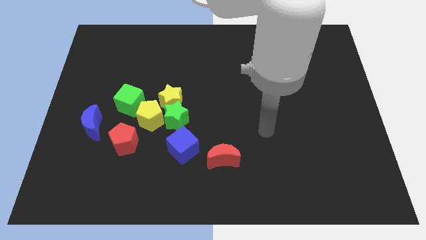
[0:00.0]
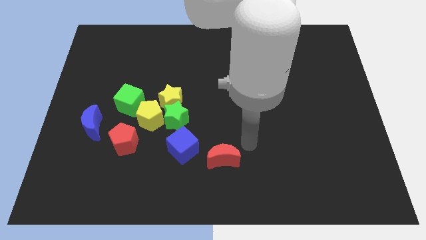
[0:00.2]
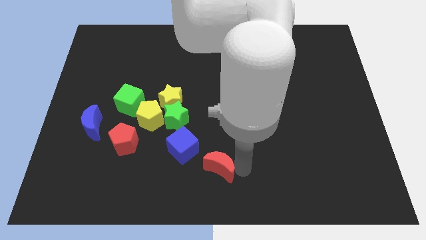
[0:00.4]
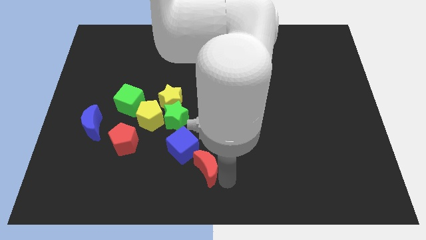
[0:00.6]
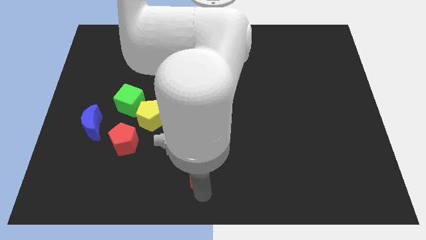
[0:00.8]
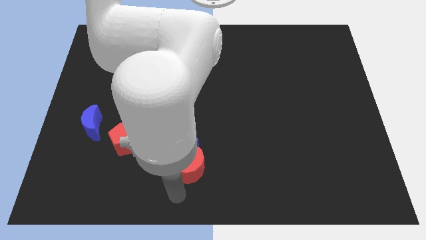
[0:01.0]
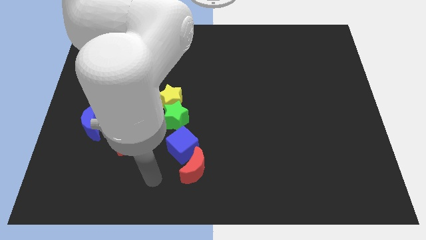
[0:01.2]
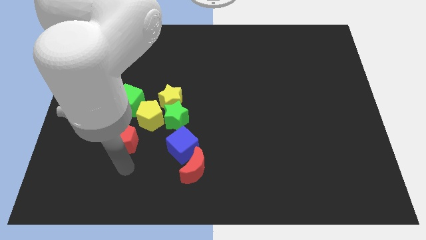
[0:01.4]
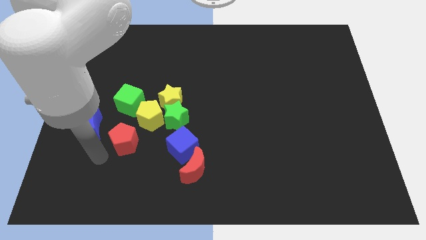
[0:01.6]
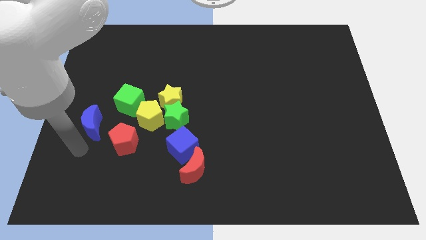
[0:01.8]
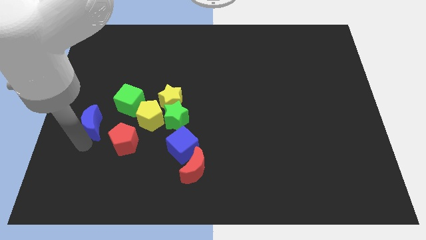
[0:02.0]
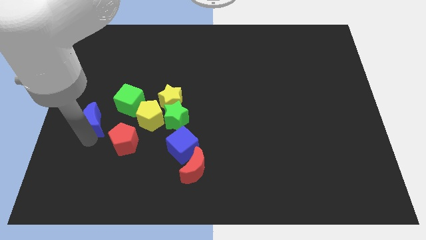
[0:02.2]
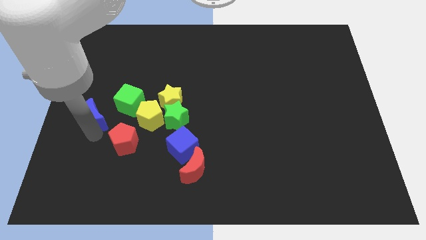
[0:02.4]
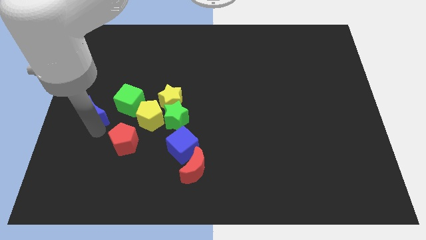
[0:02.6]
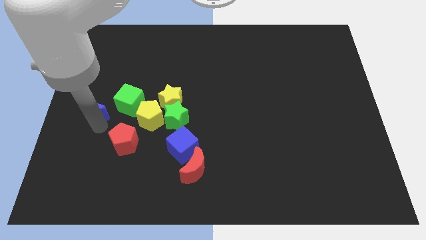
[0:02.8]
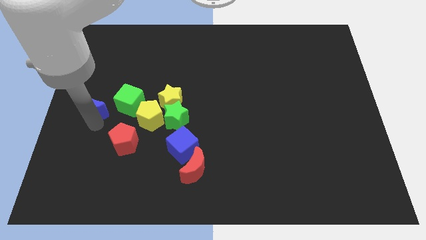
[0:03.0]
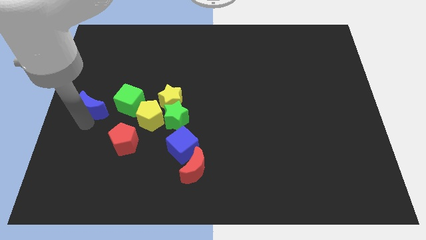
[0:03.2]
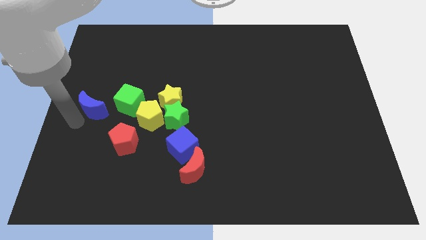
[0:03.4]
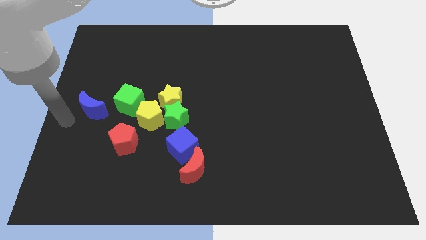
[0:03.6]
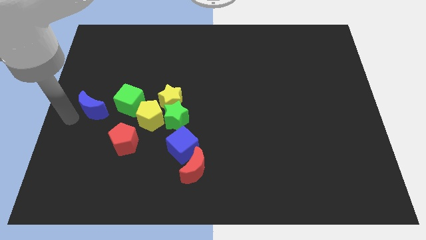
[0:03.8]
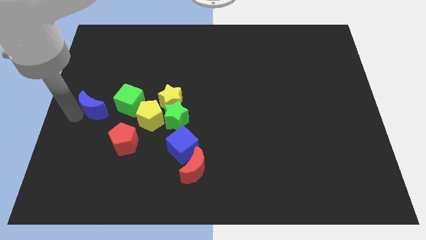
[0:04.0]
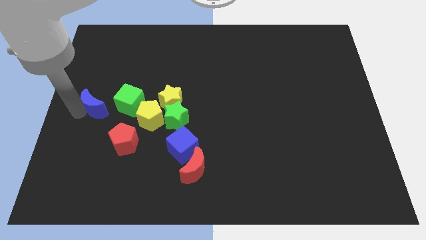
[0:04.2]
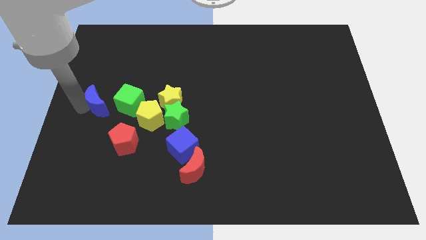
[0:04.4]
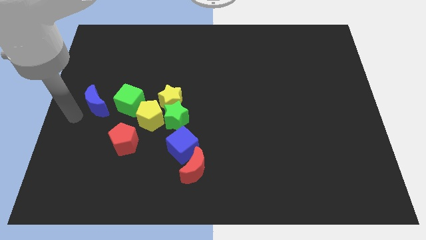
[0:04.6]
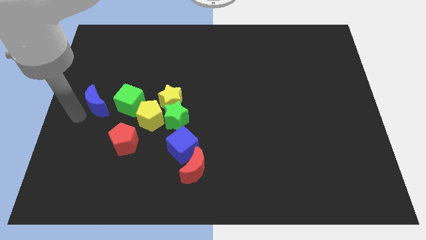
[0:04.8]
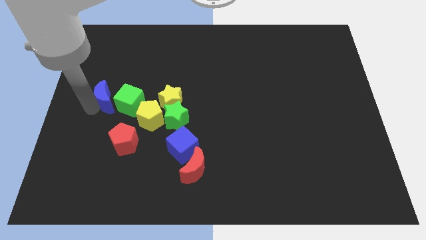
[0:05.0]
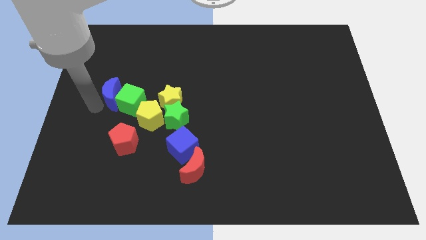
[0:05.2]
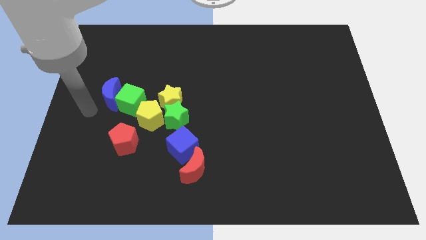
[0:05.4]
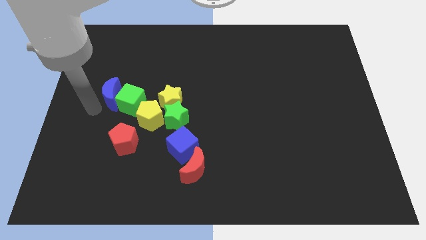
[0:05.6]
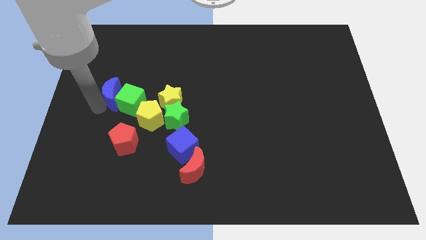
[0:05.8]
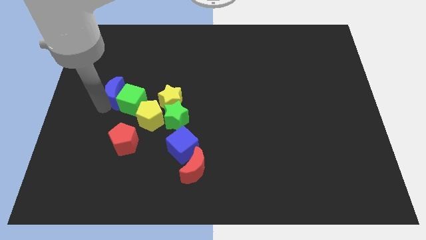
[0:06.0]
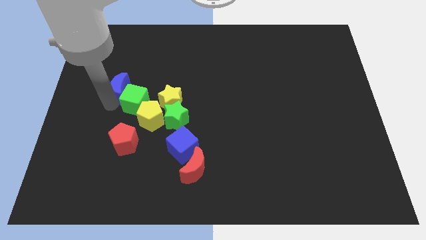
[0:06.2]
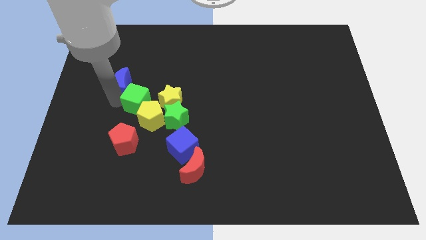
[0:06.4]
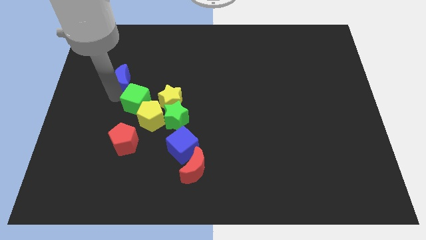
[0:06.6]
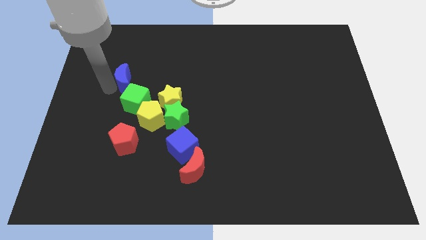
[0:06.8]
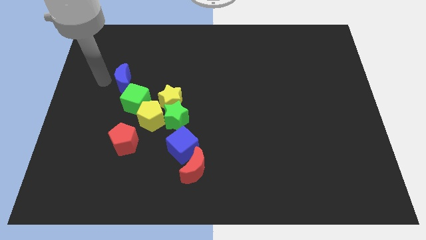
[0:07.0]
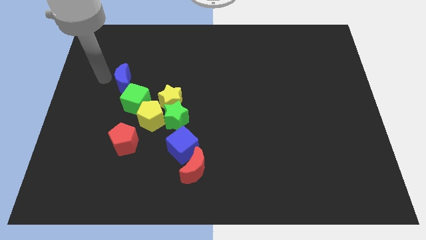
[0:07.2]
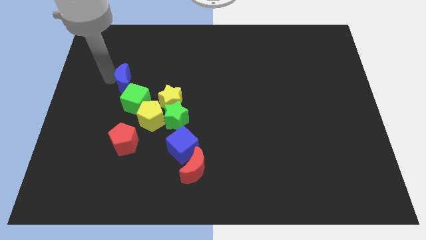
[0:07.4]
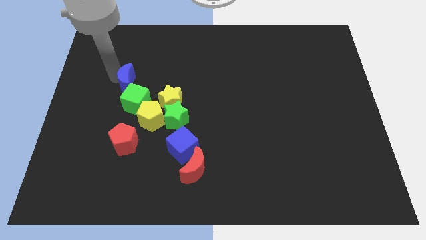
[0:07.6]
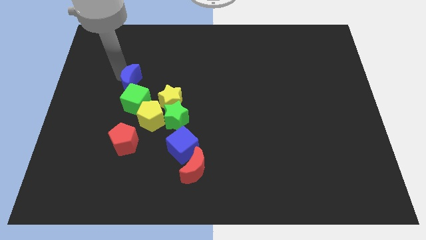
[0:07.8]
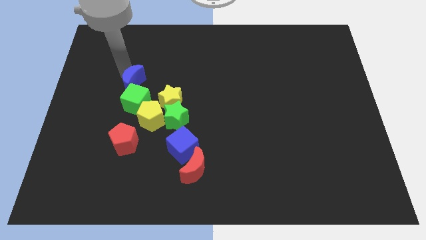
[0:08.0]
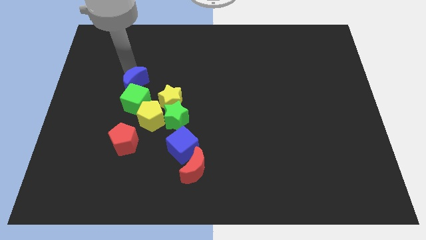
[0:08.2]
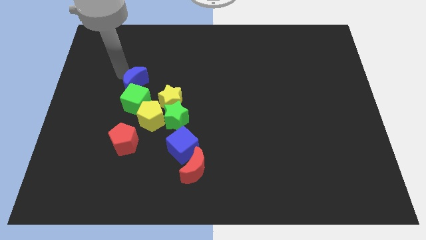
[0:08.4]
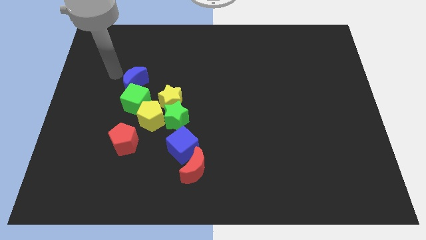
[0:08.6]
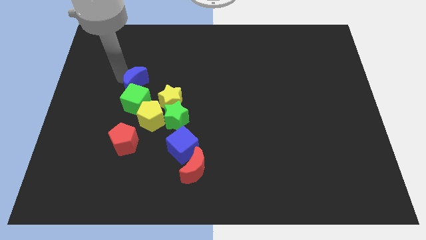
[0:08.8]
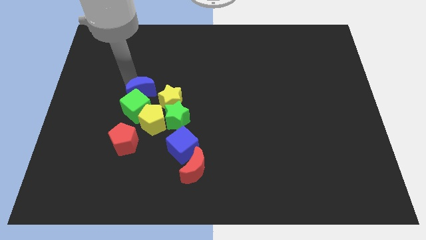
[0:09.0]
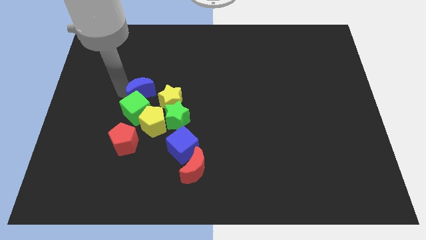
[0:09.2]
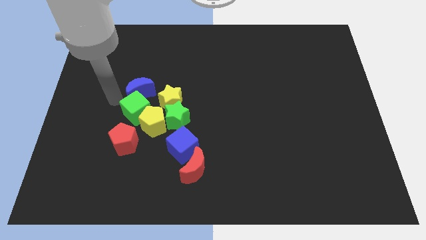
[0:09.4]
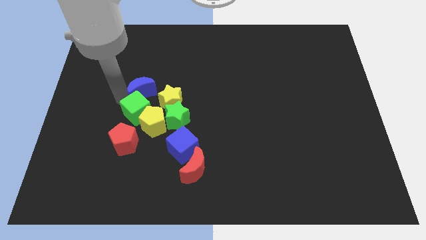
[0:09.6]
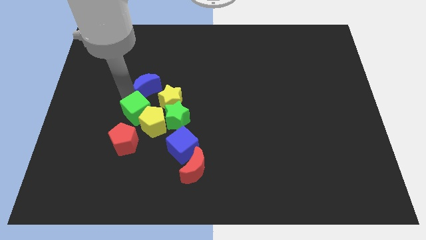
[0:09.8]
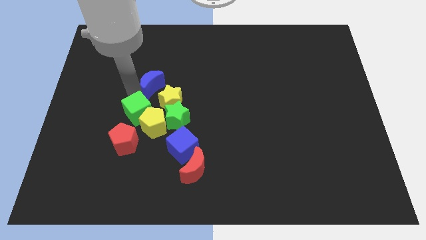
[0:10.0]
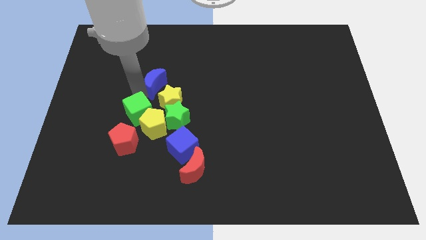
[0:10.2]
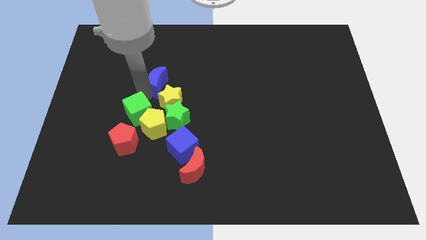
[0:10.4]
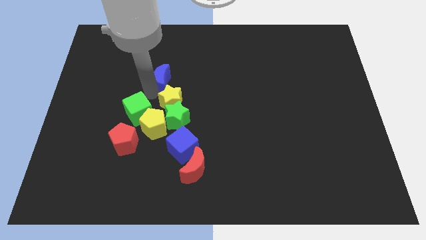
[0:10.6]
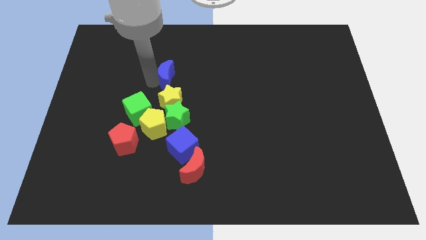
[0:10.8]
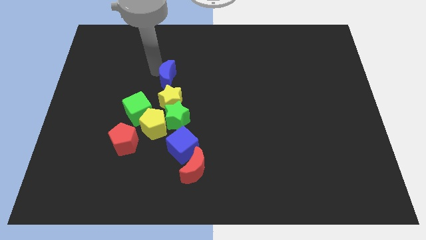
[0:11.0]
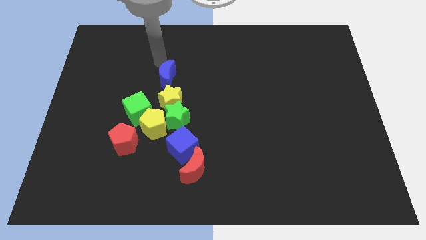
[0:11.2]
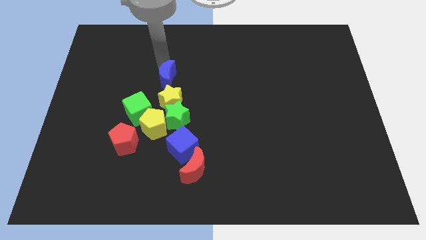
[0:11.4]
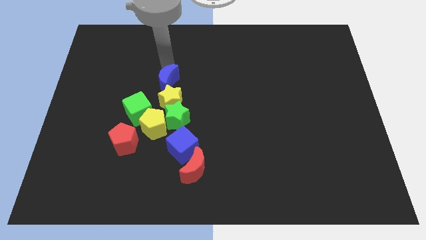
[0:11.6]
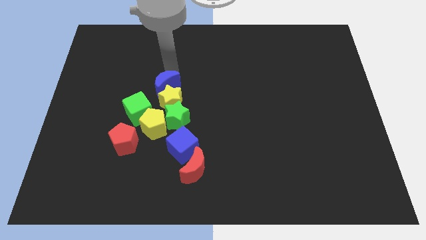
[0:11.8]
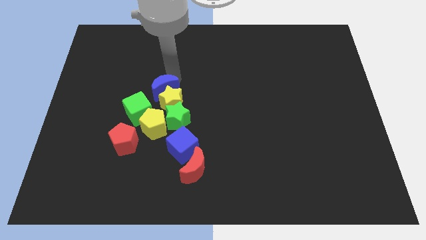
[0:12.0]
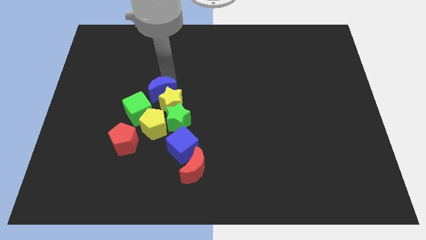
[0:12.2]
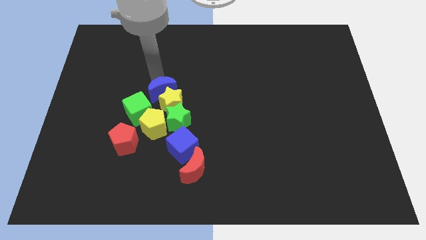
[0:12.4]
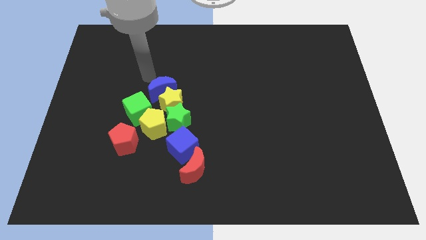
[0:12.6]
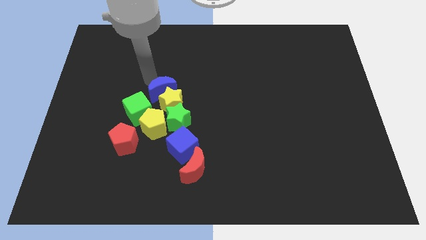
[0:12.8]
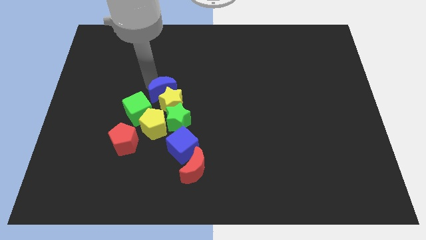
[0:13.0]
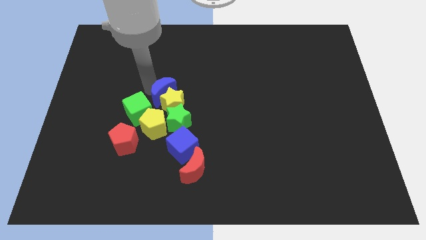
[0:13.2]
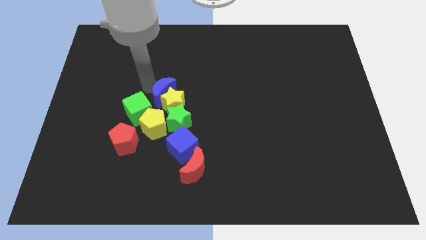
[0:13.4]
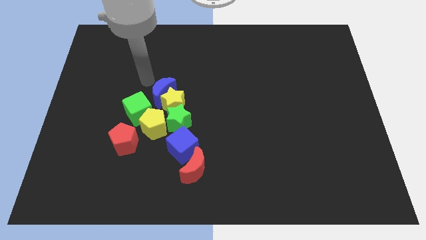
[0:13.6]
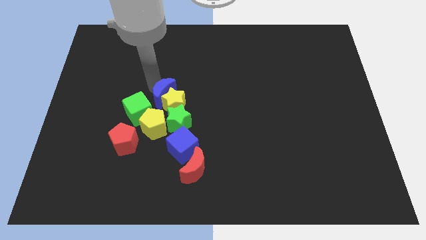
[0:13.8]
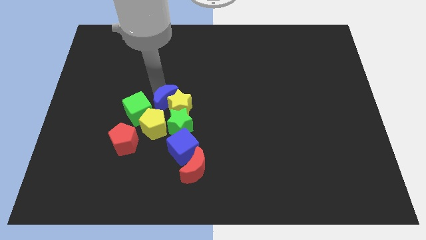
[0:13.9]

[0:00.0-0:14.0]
slide the blue moon to the top right of the yellow pentagon
